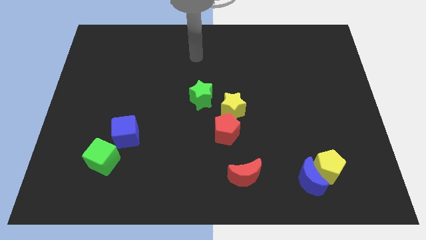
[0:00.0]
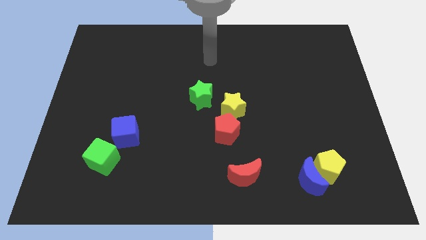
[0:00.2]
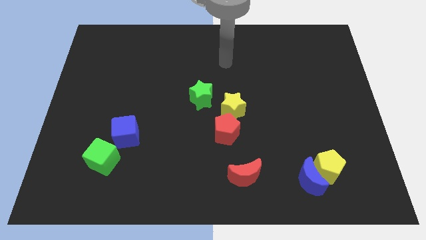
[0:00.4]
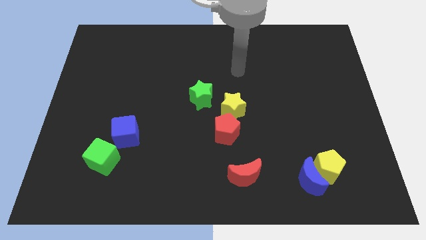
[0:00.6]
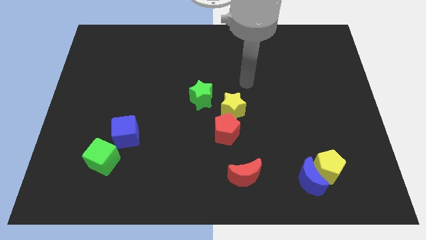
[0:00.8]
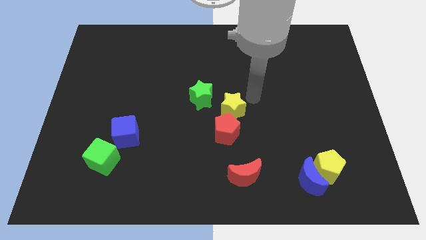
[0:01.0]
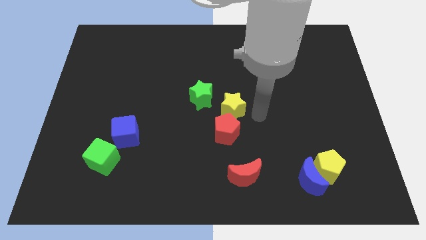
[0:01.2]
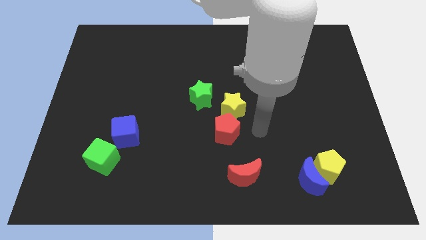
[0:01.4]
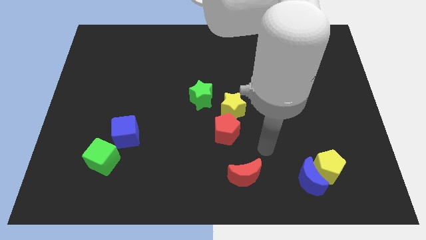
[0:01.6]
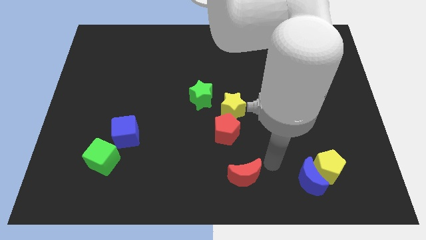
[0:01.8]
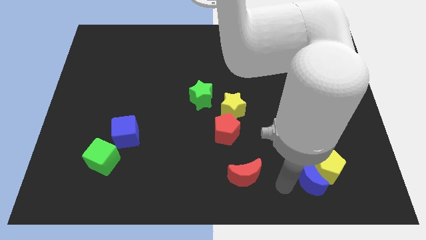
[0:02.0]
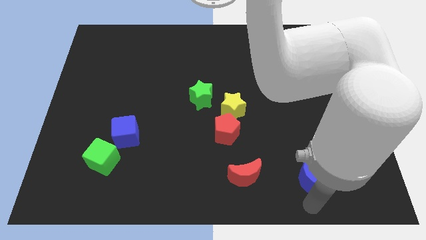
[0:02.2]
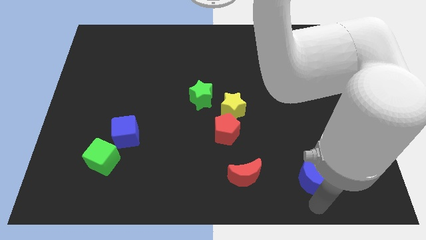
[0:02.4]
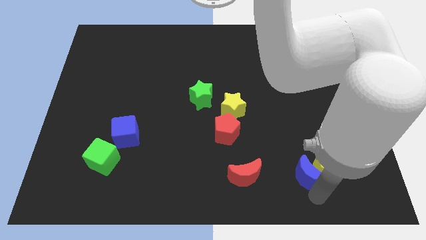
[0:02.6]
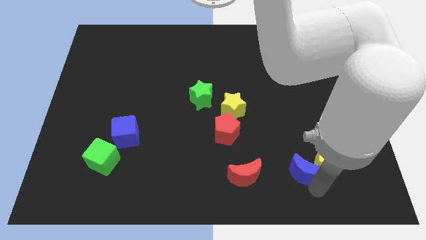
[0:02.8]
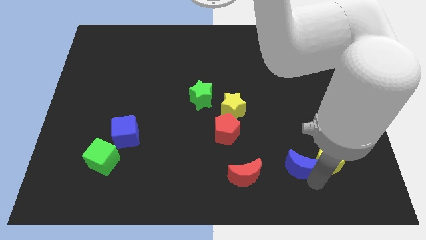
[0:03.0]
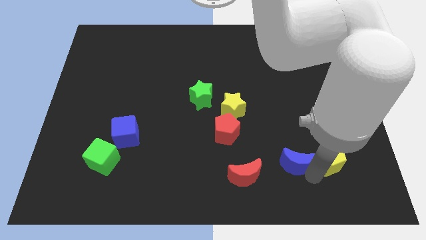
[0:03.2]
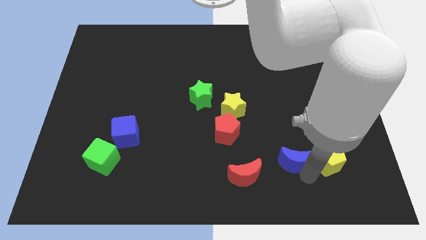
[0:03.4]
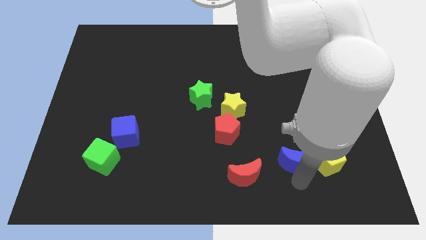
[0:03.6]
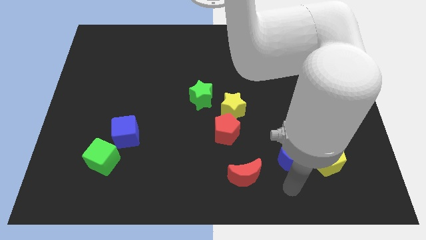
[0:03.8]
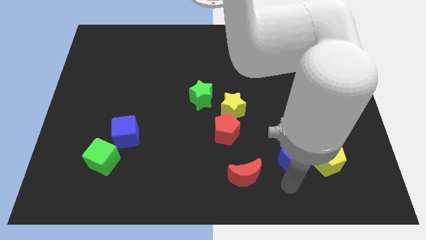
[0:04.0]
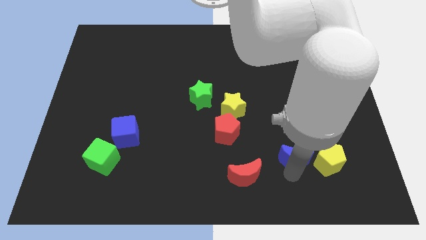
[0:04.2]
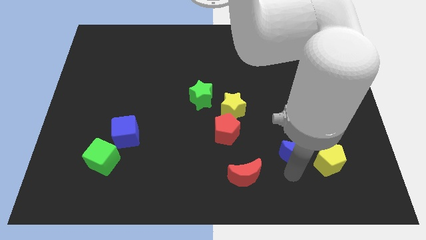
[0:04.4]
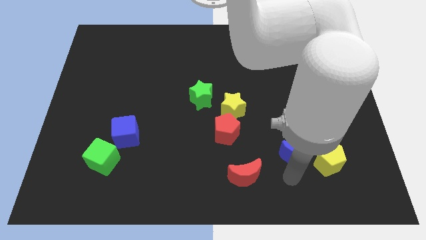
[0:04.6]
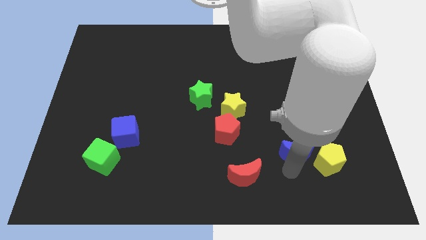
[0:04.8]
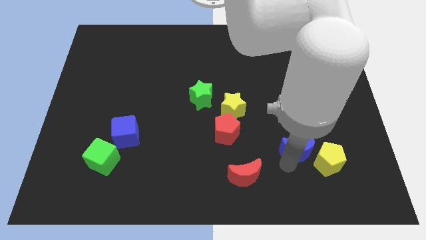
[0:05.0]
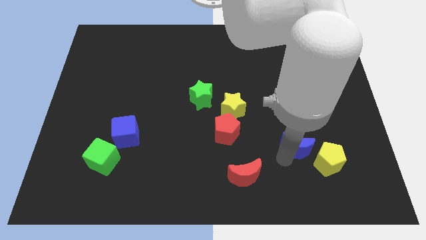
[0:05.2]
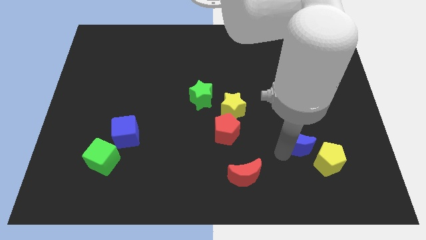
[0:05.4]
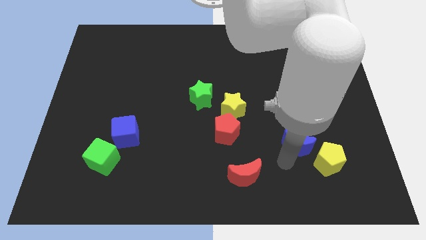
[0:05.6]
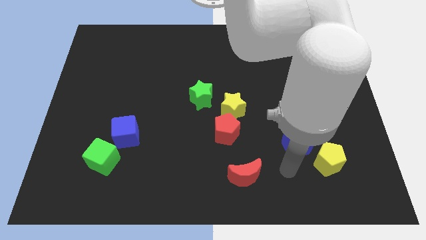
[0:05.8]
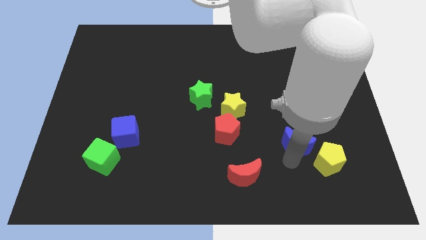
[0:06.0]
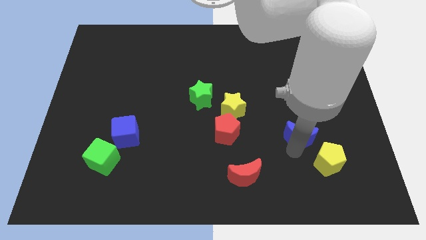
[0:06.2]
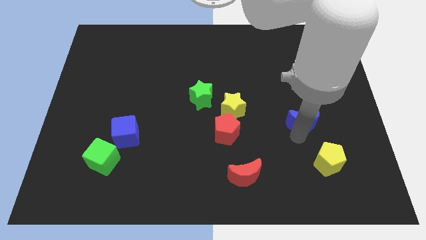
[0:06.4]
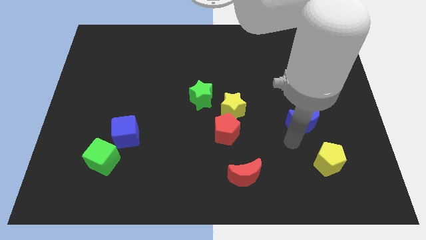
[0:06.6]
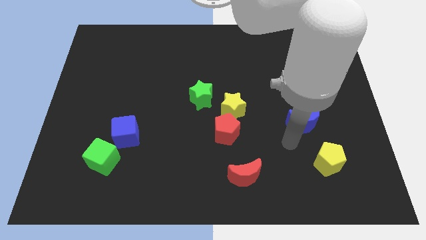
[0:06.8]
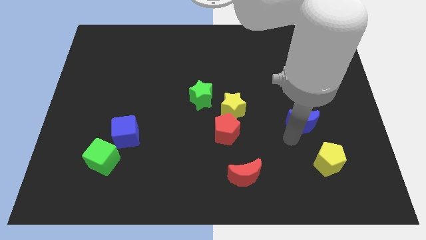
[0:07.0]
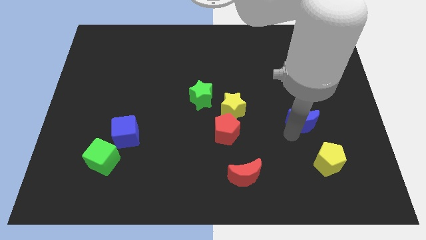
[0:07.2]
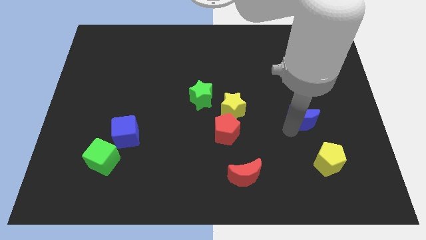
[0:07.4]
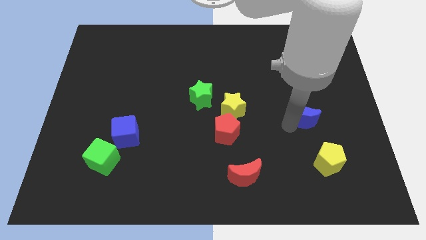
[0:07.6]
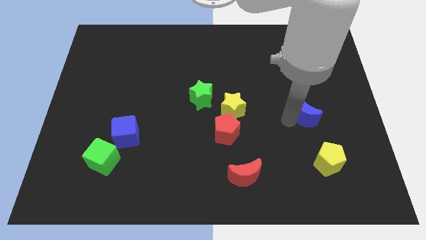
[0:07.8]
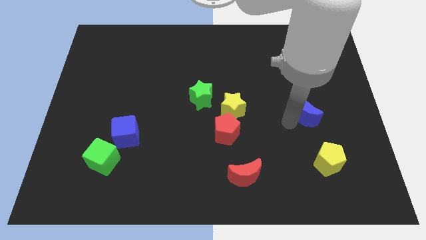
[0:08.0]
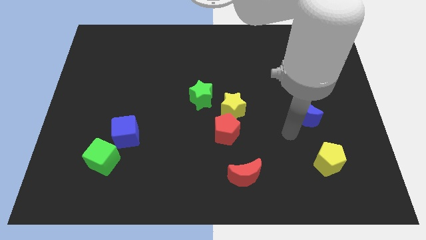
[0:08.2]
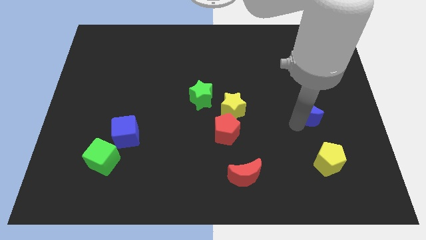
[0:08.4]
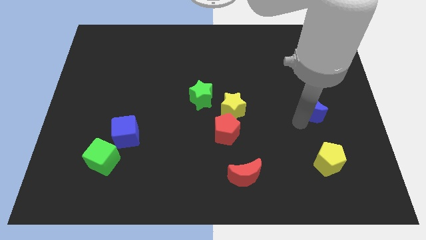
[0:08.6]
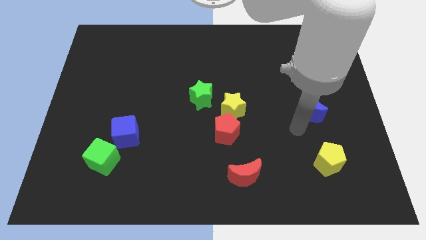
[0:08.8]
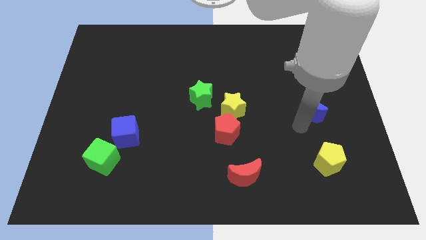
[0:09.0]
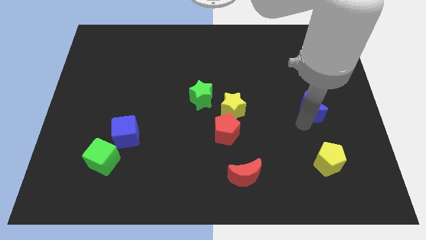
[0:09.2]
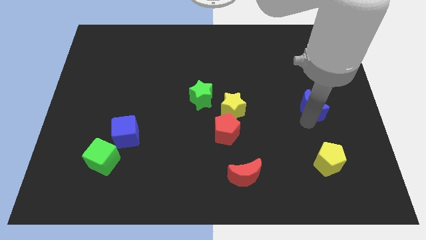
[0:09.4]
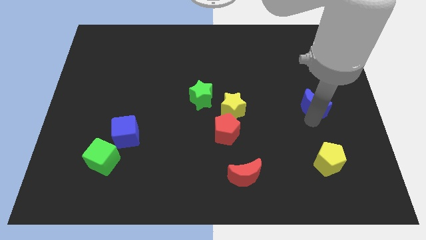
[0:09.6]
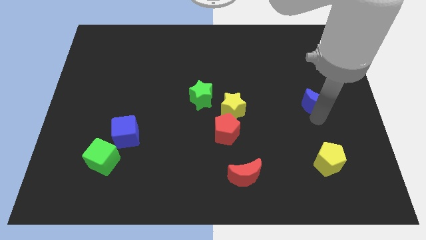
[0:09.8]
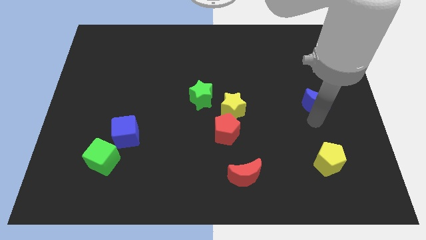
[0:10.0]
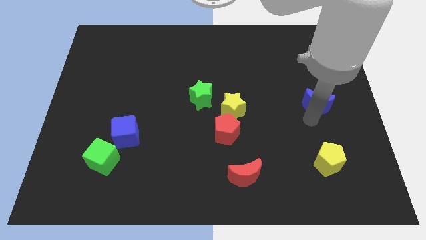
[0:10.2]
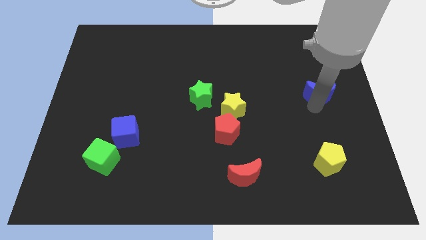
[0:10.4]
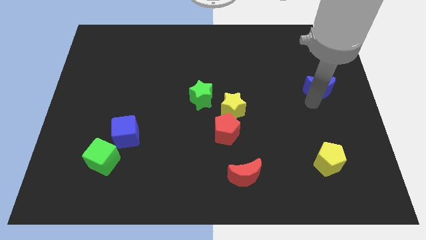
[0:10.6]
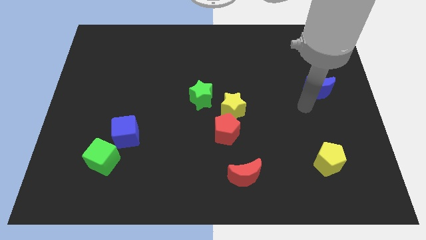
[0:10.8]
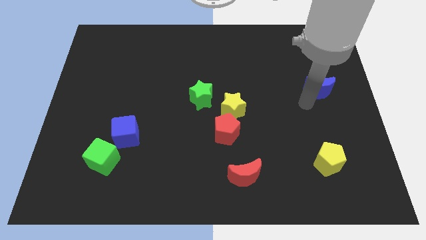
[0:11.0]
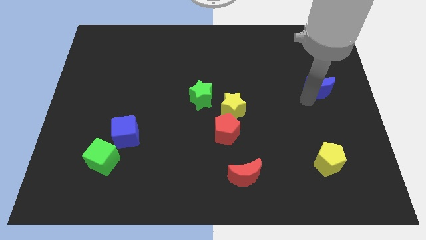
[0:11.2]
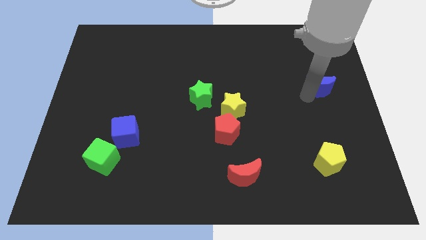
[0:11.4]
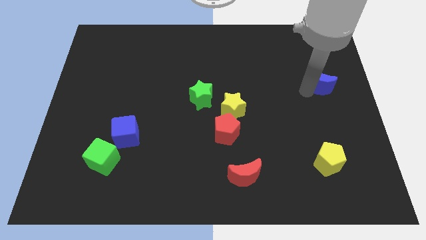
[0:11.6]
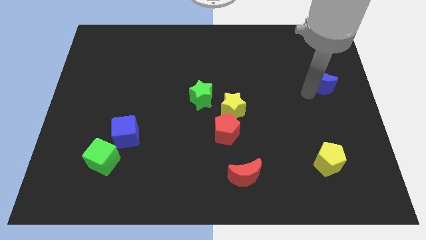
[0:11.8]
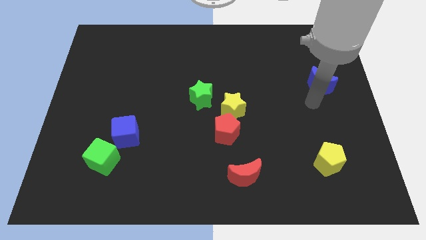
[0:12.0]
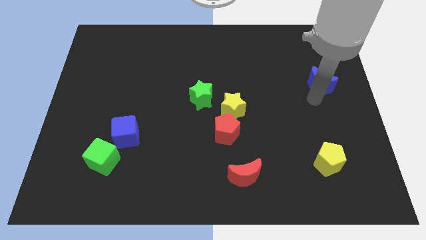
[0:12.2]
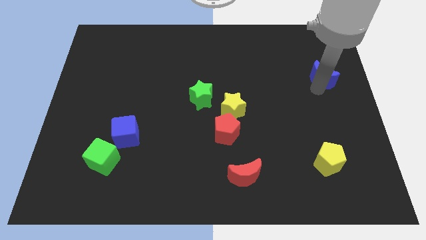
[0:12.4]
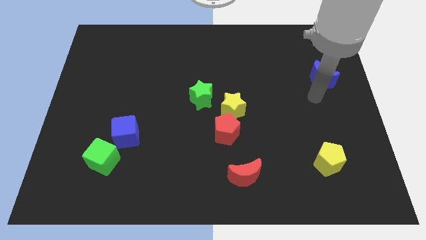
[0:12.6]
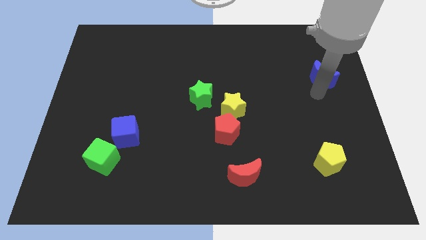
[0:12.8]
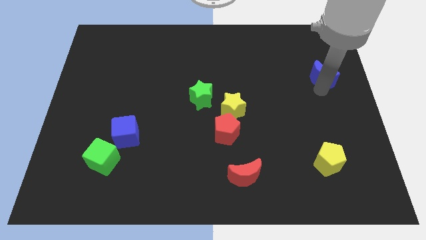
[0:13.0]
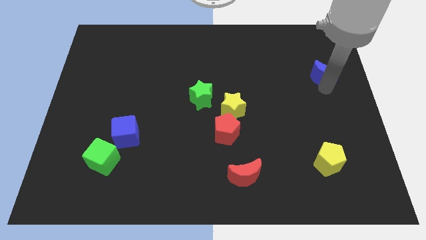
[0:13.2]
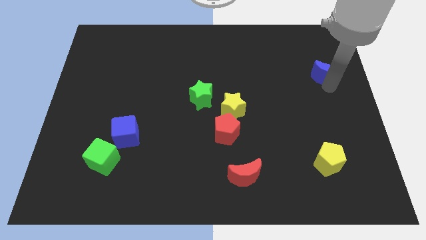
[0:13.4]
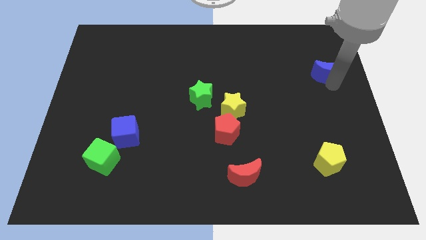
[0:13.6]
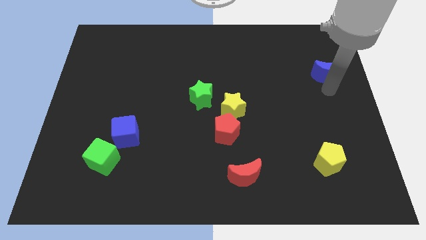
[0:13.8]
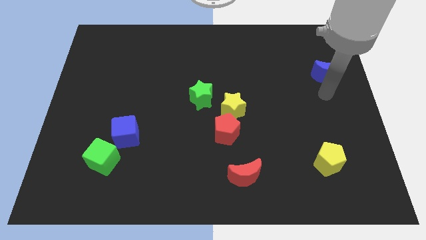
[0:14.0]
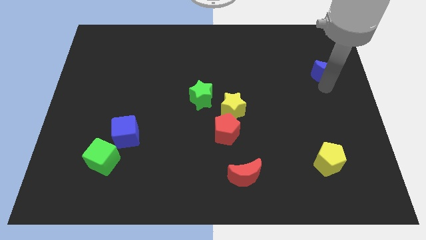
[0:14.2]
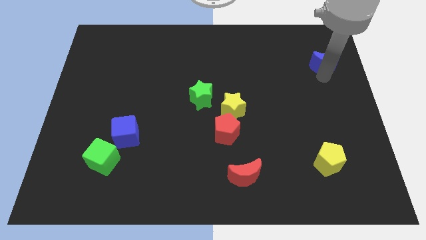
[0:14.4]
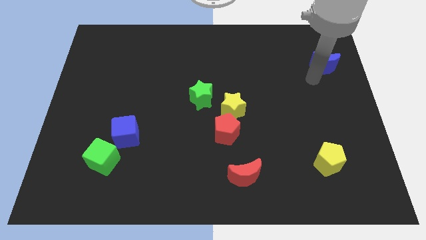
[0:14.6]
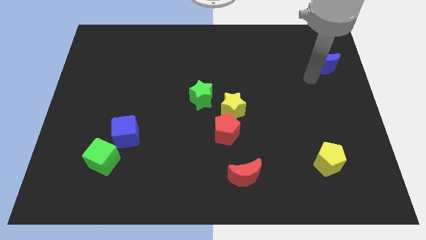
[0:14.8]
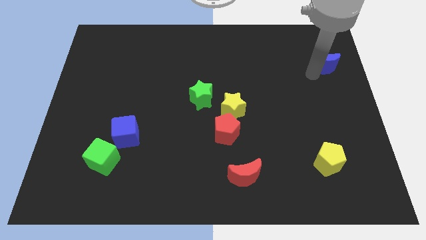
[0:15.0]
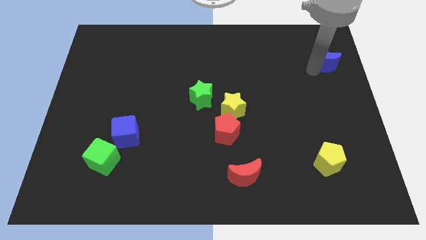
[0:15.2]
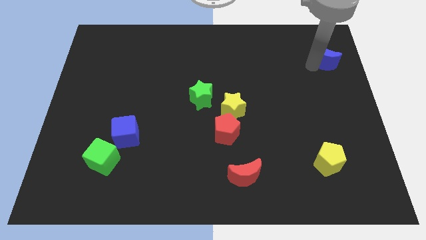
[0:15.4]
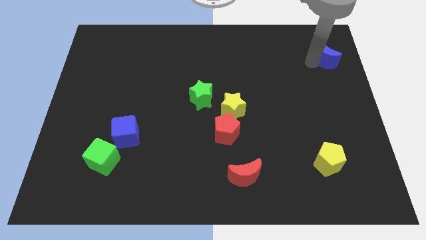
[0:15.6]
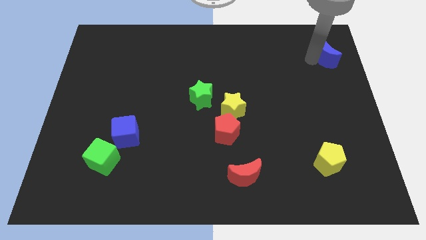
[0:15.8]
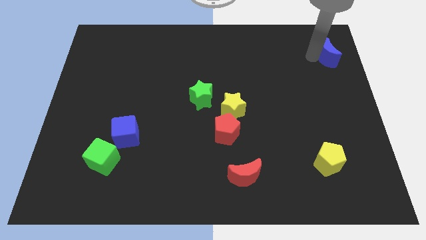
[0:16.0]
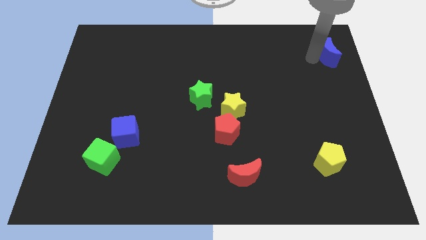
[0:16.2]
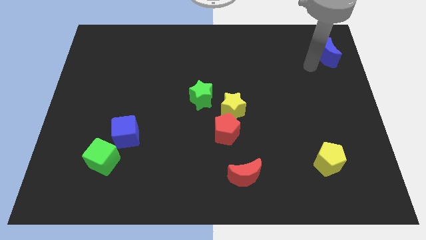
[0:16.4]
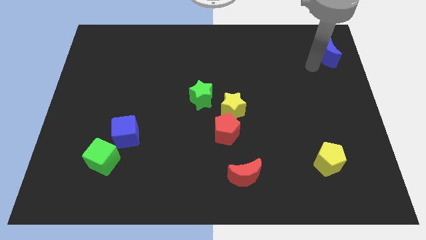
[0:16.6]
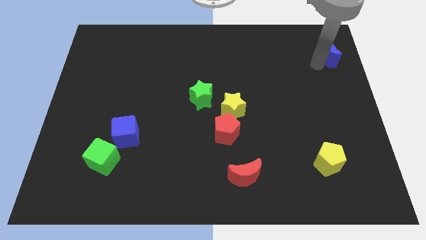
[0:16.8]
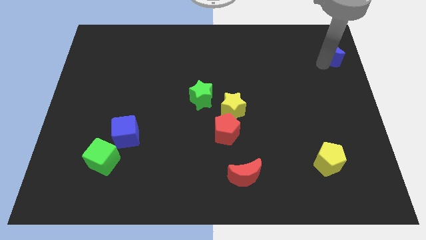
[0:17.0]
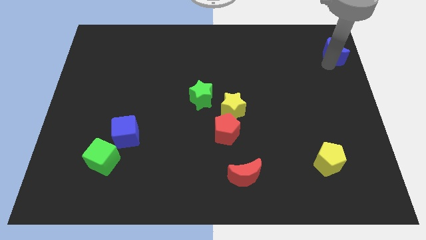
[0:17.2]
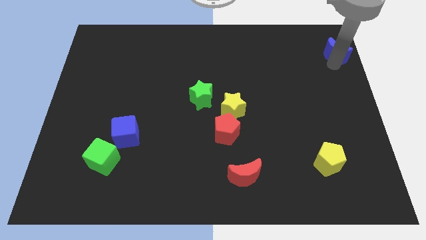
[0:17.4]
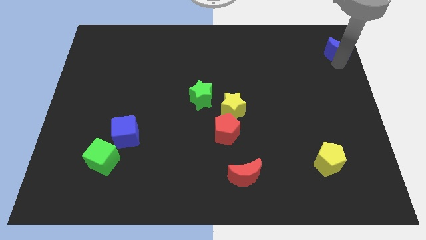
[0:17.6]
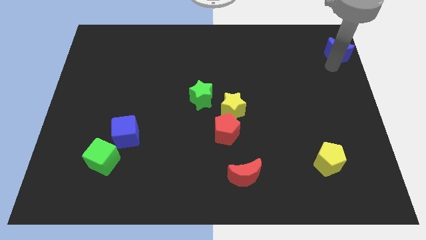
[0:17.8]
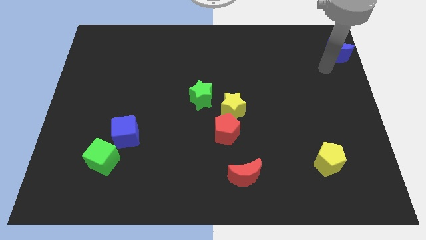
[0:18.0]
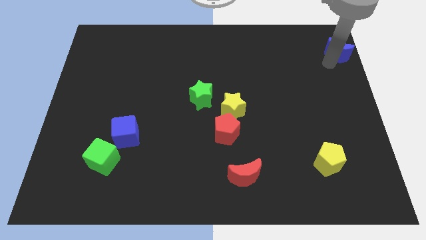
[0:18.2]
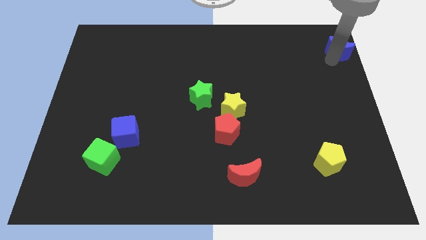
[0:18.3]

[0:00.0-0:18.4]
slide the blue moon to the upper right corner
